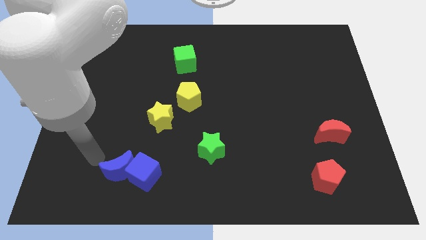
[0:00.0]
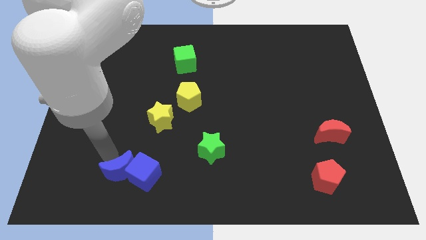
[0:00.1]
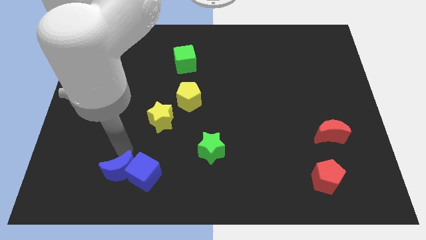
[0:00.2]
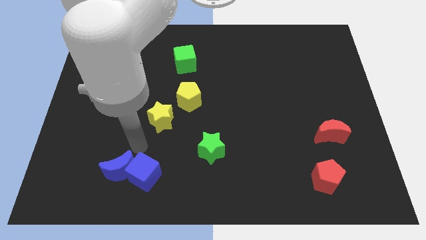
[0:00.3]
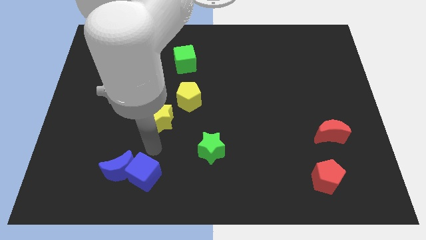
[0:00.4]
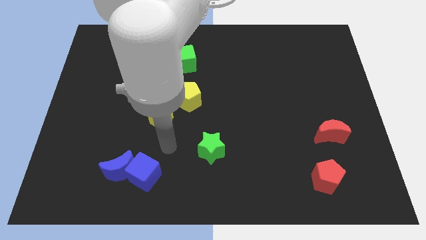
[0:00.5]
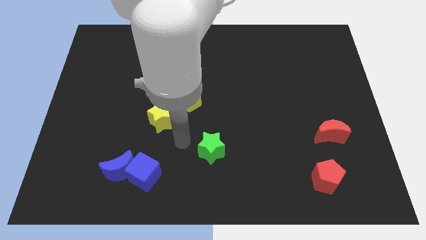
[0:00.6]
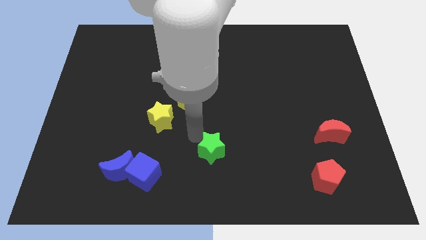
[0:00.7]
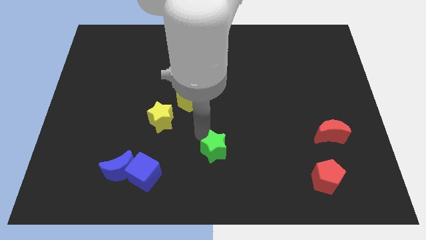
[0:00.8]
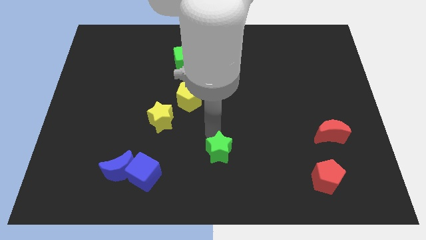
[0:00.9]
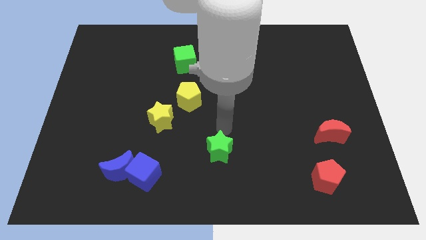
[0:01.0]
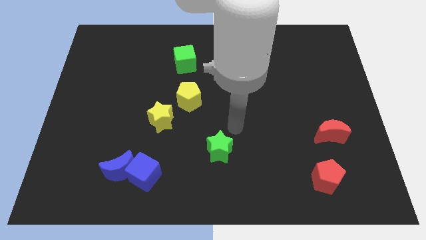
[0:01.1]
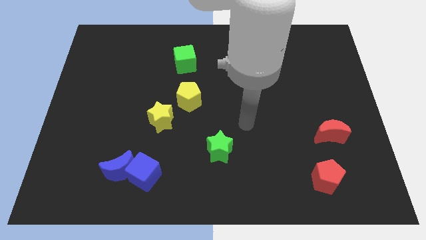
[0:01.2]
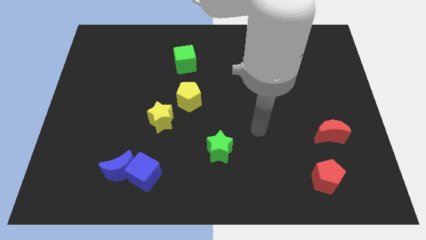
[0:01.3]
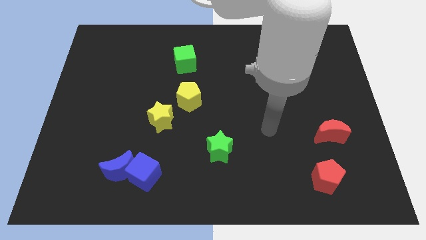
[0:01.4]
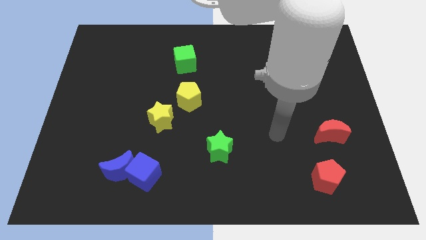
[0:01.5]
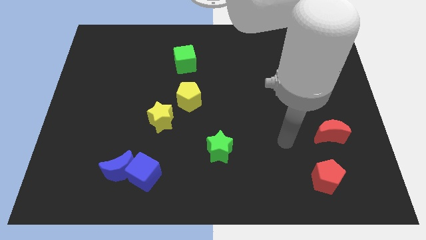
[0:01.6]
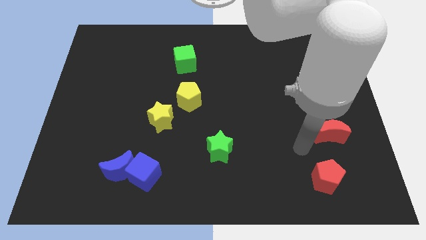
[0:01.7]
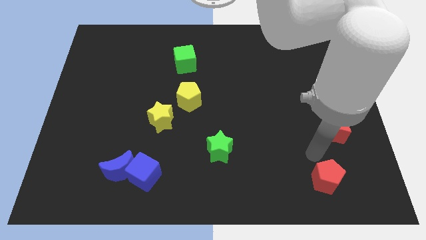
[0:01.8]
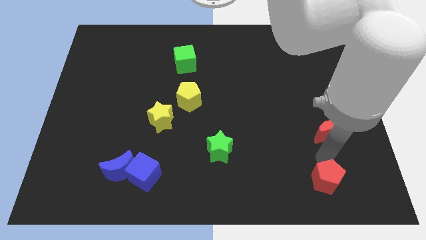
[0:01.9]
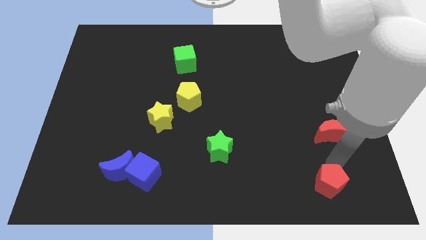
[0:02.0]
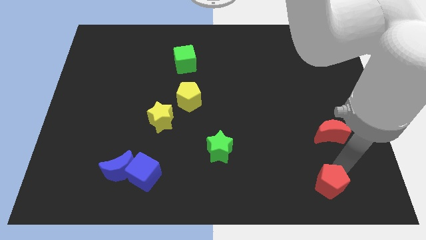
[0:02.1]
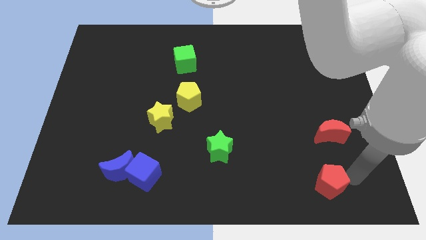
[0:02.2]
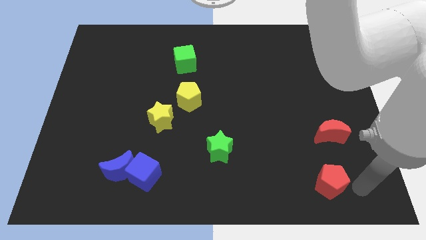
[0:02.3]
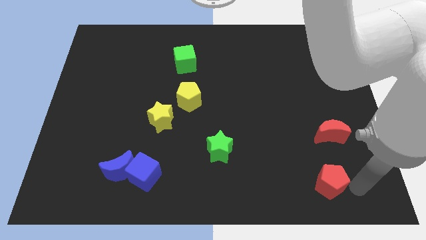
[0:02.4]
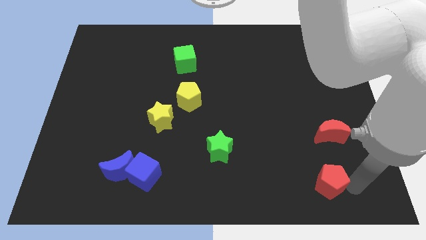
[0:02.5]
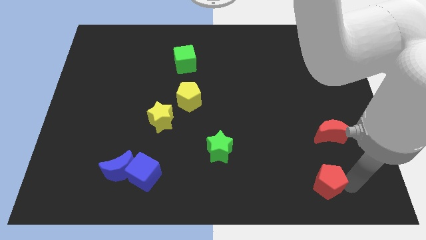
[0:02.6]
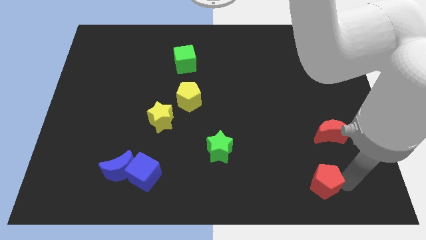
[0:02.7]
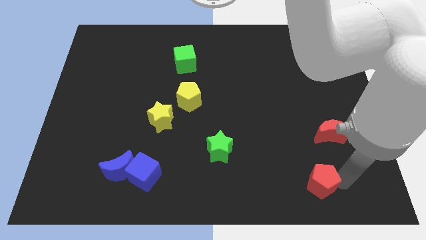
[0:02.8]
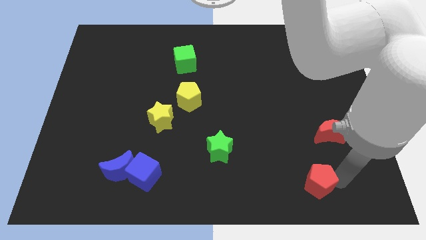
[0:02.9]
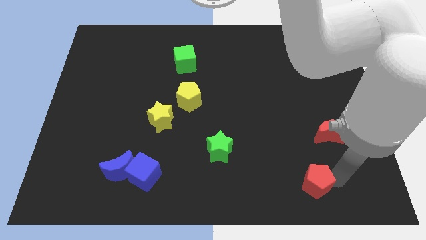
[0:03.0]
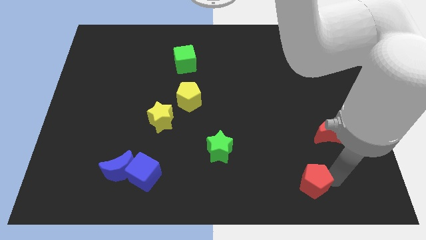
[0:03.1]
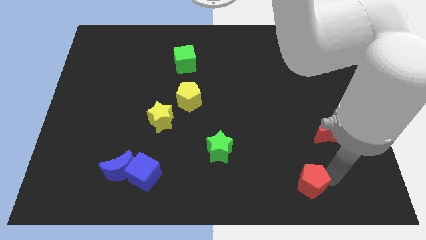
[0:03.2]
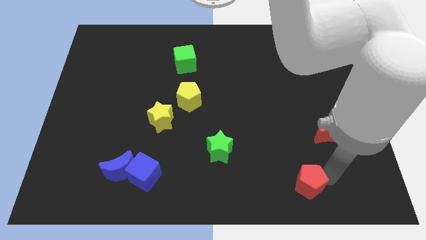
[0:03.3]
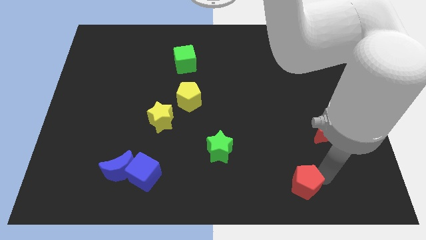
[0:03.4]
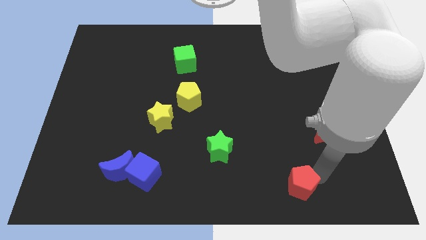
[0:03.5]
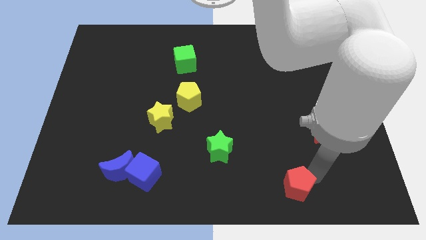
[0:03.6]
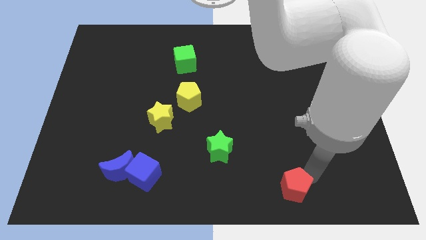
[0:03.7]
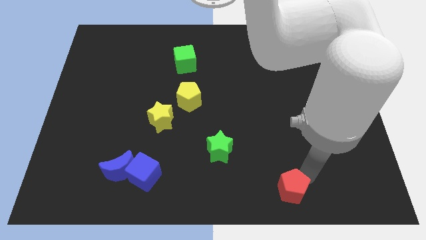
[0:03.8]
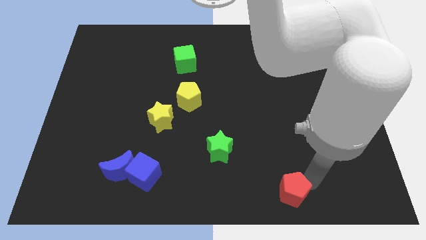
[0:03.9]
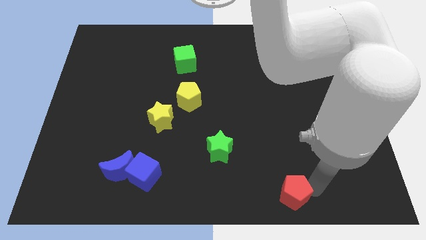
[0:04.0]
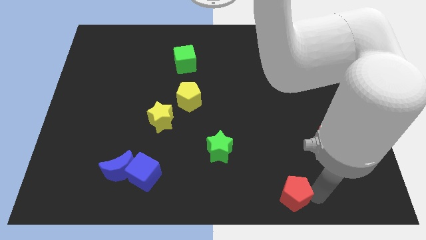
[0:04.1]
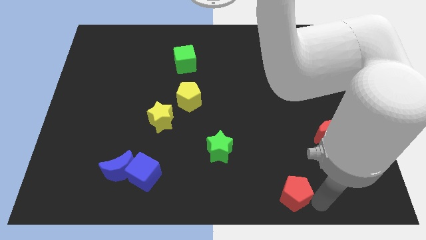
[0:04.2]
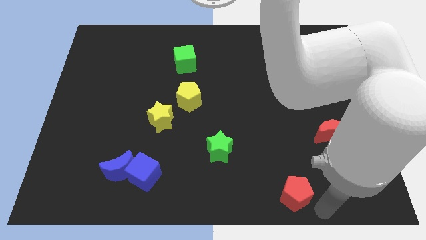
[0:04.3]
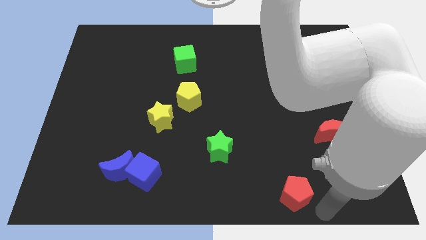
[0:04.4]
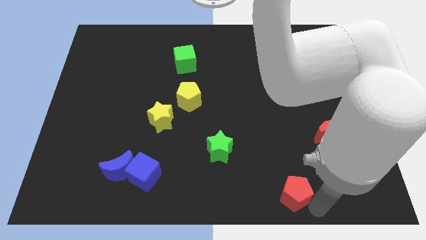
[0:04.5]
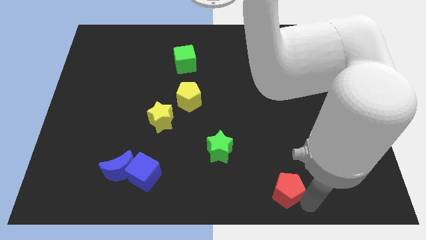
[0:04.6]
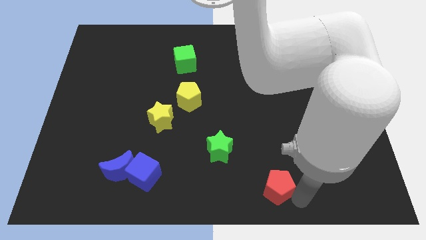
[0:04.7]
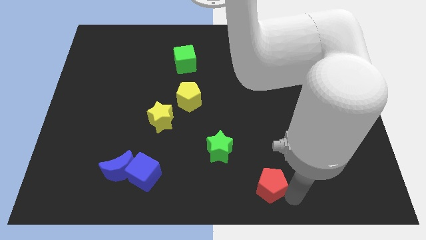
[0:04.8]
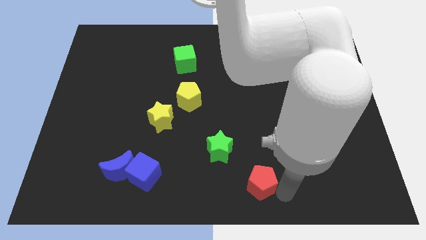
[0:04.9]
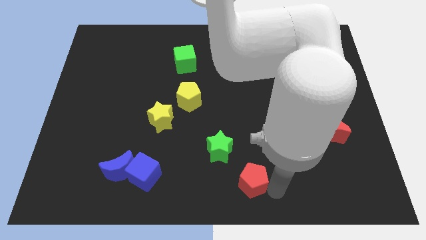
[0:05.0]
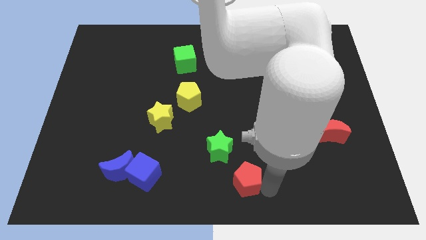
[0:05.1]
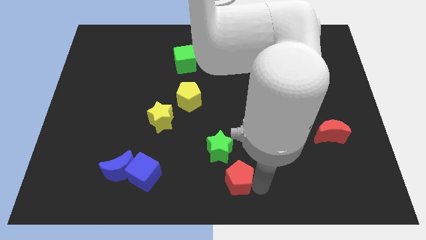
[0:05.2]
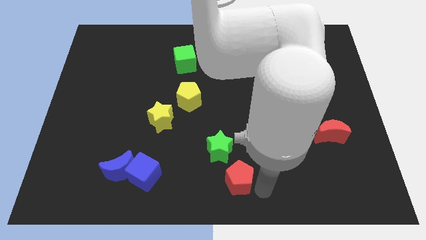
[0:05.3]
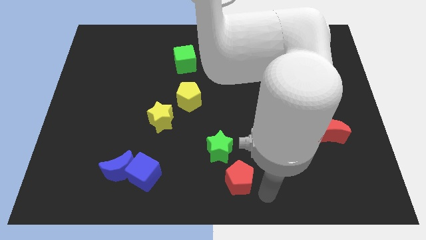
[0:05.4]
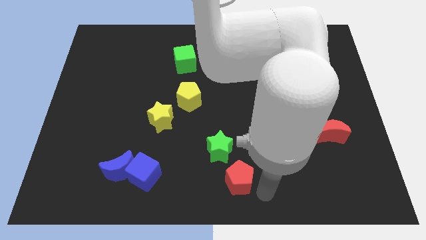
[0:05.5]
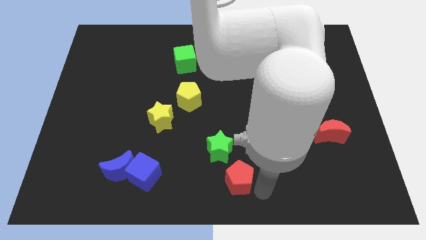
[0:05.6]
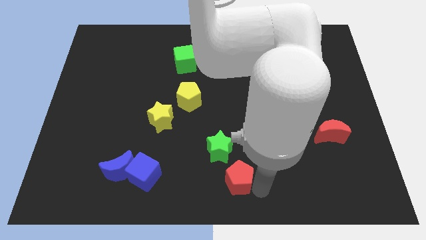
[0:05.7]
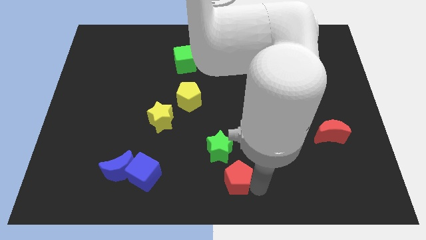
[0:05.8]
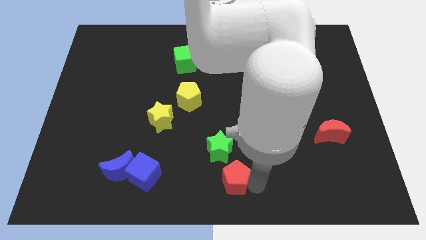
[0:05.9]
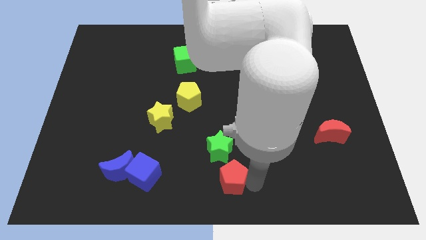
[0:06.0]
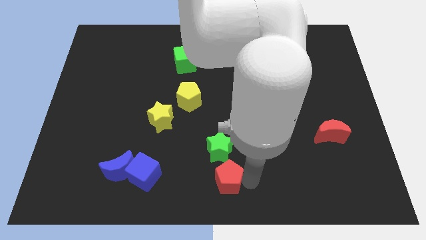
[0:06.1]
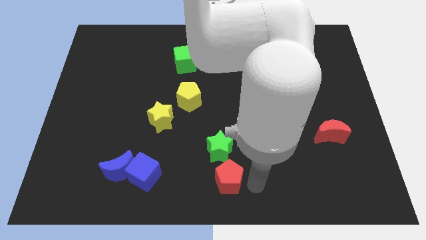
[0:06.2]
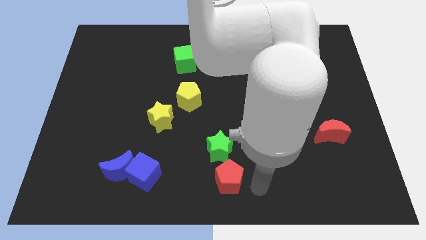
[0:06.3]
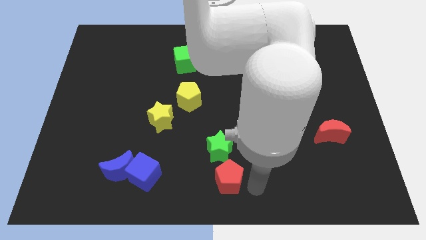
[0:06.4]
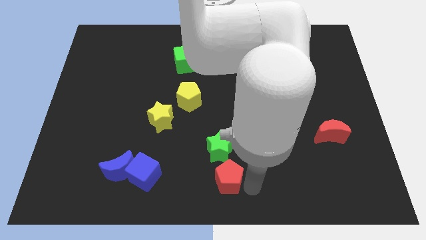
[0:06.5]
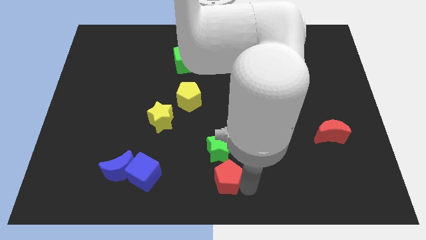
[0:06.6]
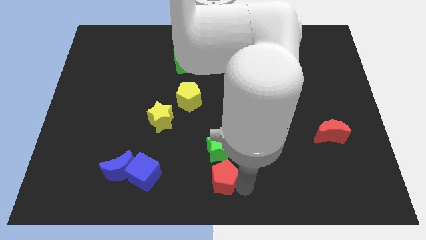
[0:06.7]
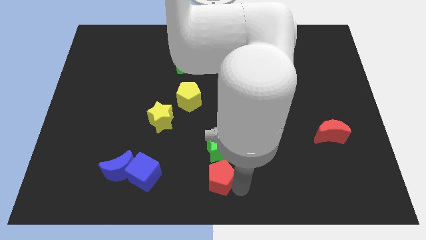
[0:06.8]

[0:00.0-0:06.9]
move the red pentagon to the bottom left side of the green star

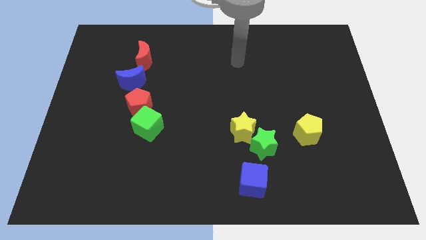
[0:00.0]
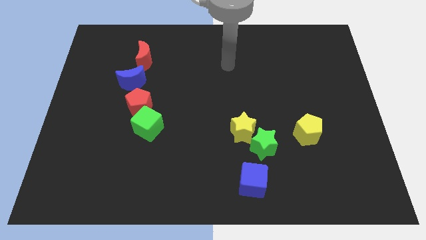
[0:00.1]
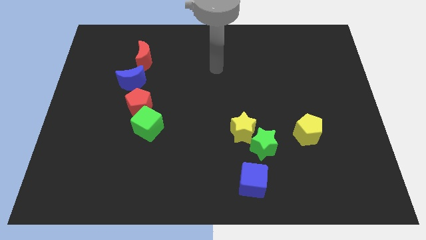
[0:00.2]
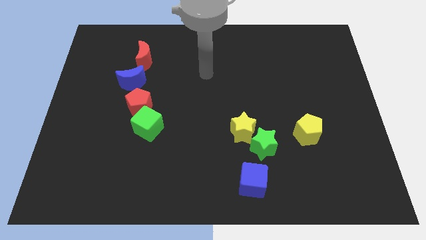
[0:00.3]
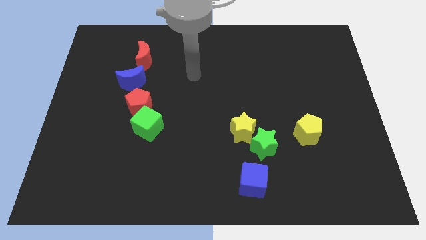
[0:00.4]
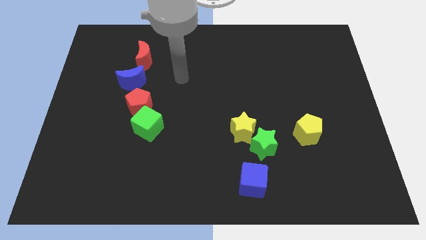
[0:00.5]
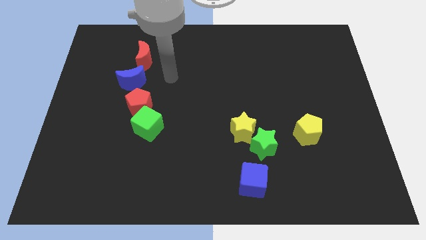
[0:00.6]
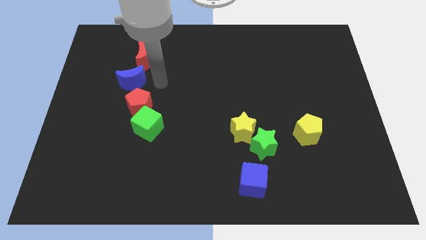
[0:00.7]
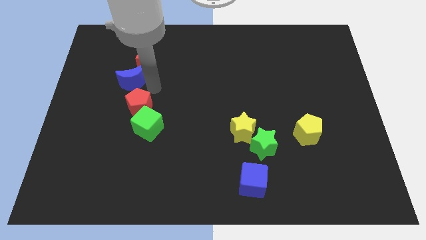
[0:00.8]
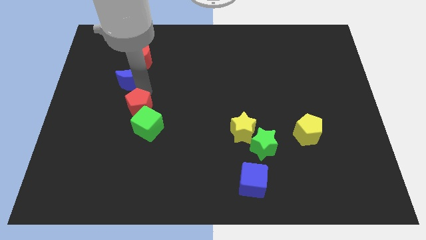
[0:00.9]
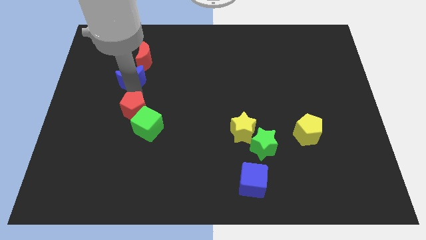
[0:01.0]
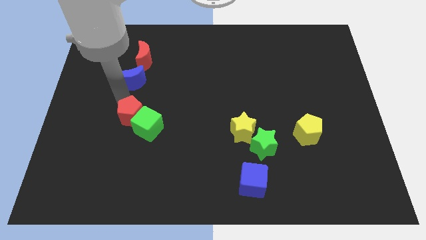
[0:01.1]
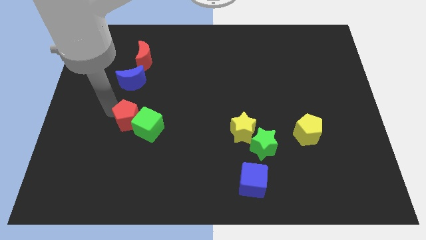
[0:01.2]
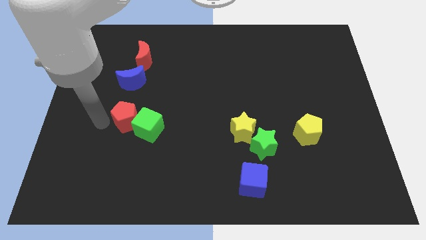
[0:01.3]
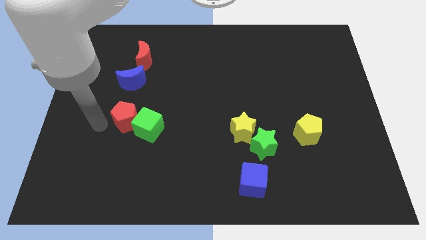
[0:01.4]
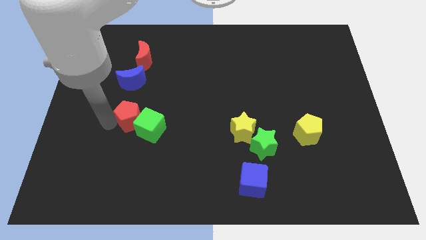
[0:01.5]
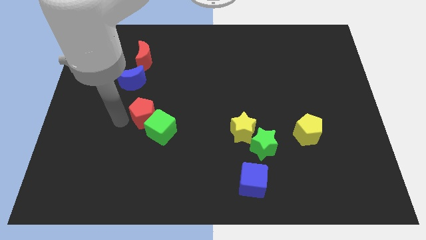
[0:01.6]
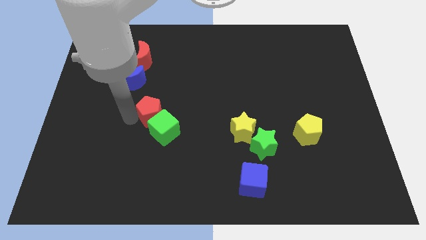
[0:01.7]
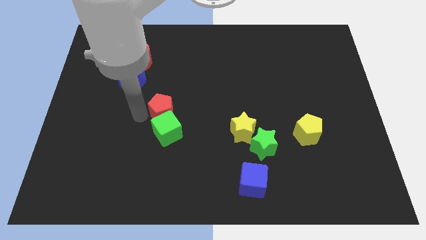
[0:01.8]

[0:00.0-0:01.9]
push the red pentagon diagonally up and to the right of the green cube
